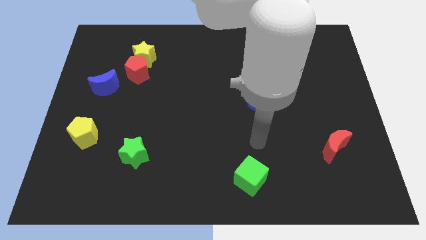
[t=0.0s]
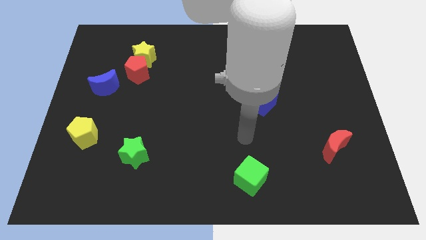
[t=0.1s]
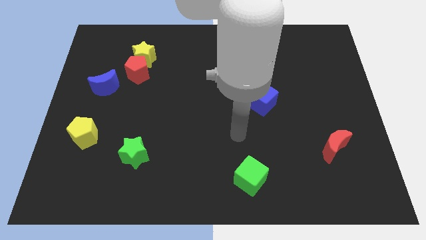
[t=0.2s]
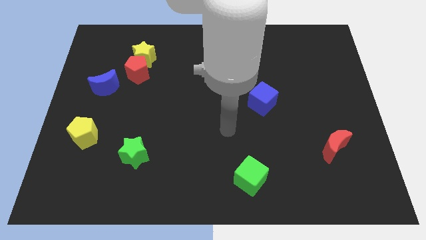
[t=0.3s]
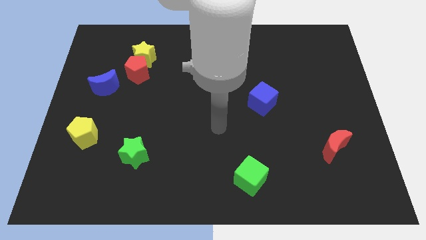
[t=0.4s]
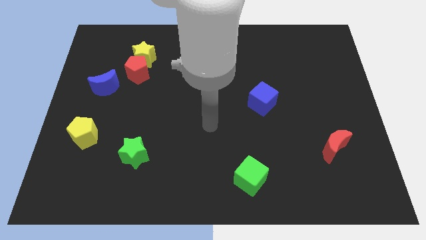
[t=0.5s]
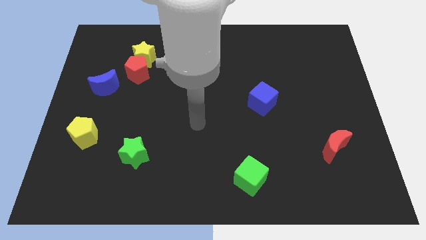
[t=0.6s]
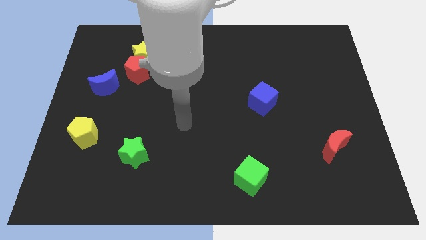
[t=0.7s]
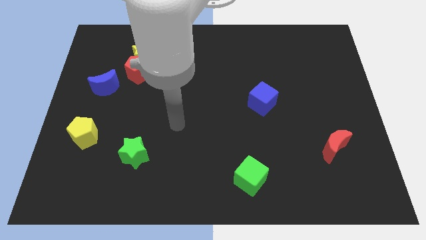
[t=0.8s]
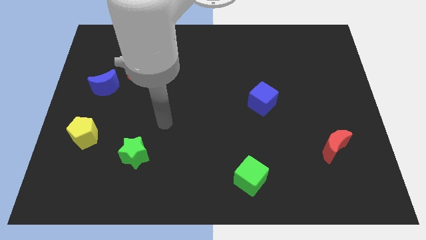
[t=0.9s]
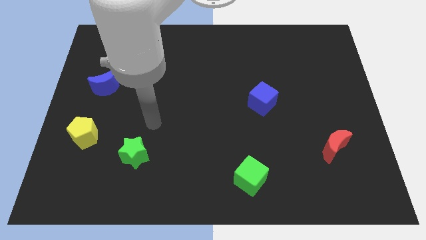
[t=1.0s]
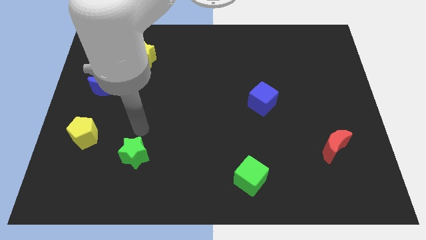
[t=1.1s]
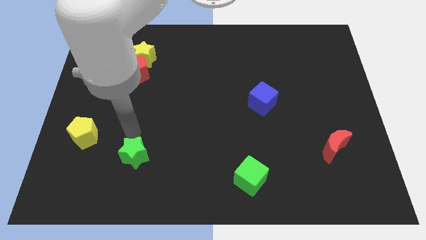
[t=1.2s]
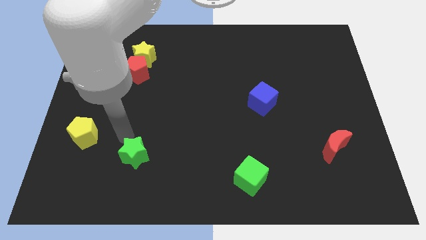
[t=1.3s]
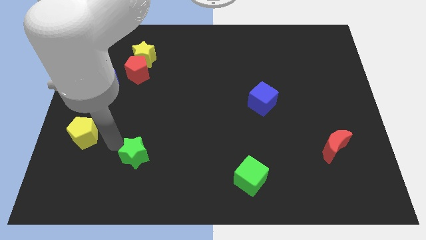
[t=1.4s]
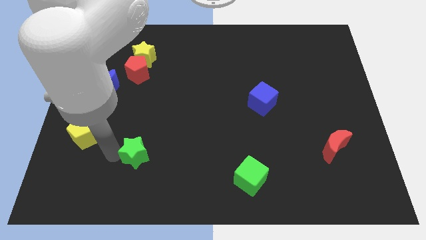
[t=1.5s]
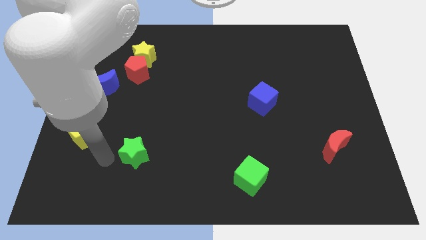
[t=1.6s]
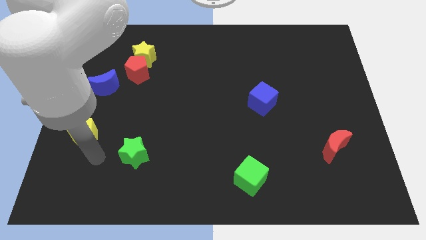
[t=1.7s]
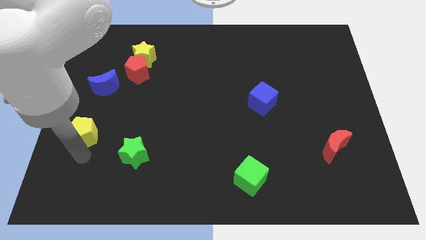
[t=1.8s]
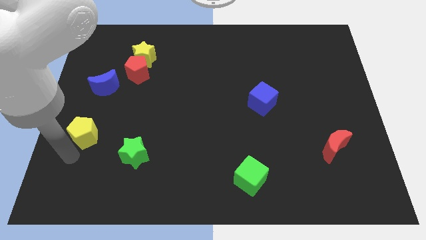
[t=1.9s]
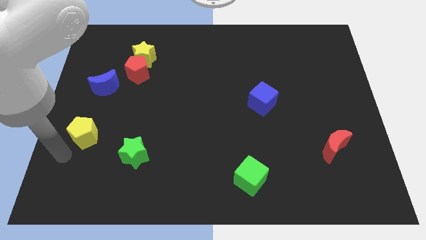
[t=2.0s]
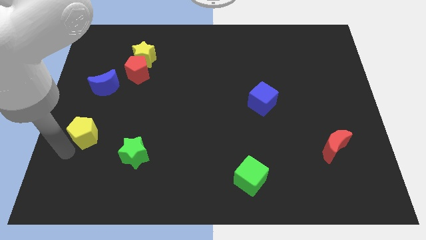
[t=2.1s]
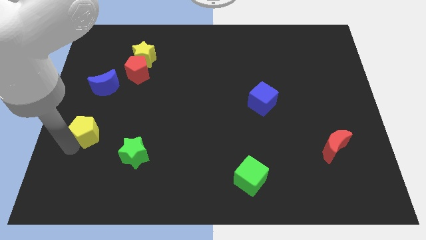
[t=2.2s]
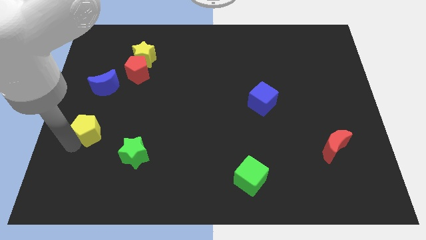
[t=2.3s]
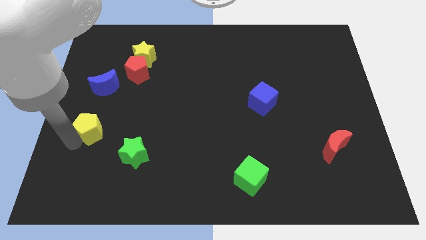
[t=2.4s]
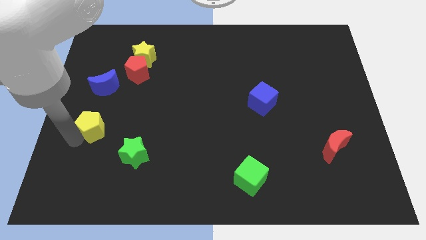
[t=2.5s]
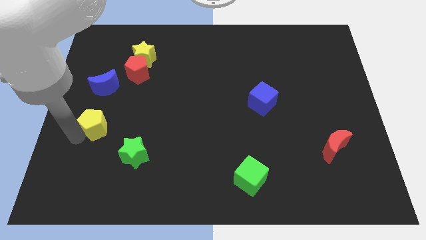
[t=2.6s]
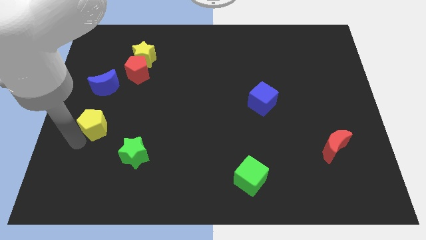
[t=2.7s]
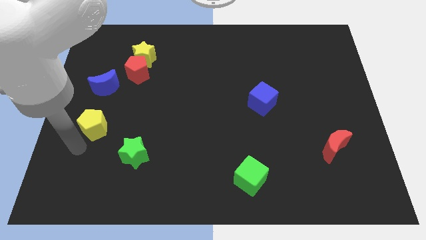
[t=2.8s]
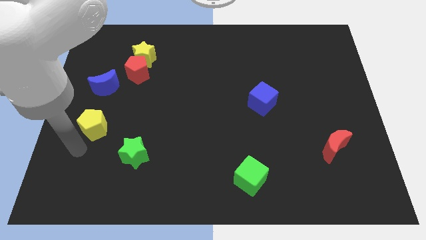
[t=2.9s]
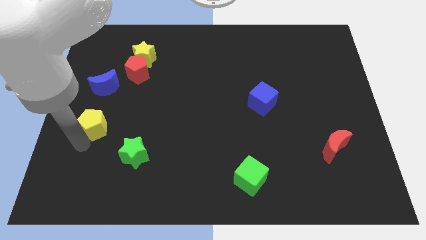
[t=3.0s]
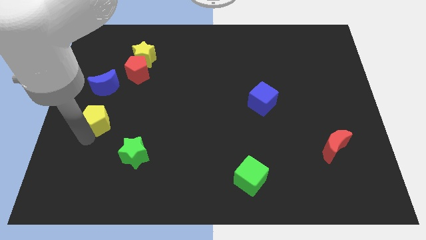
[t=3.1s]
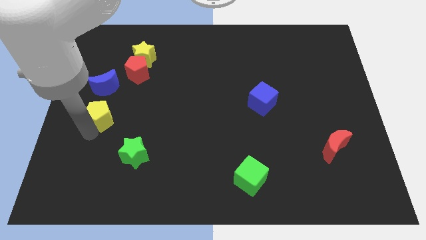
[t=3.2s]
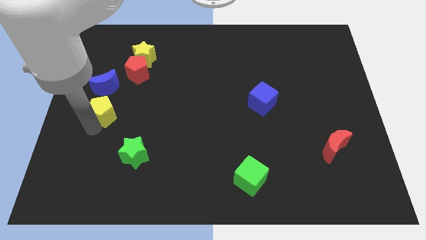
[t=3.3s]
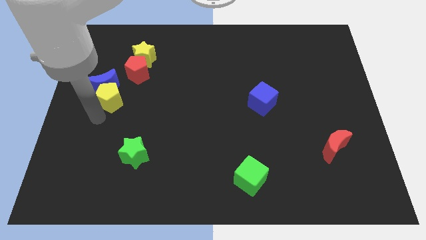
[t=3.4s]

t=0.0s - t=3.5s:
slide the yellow pentagon somewhat diagonally up and right

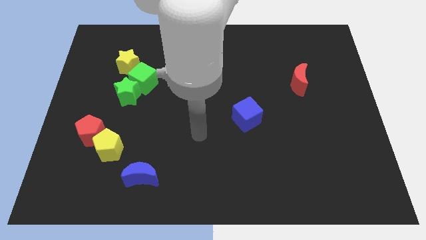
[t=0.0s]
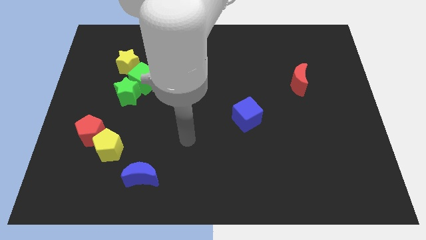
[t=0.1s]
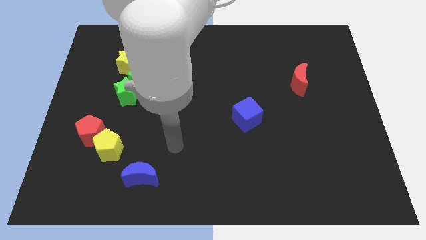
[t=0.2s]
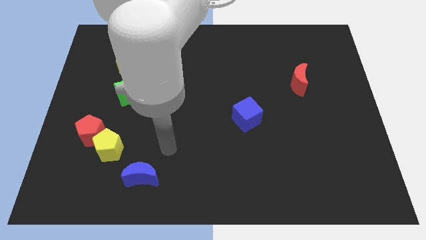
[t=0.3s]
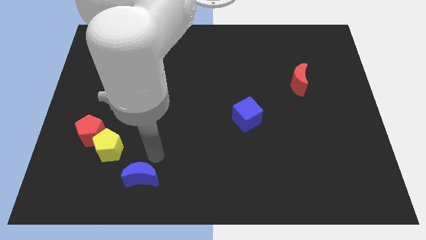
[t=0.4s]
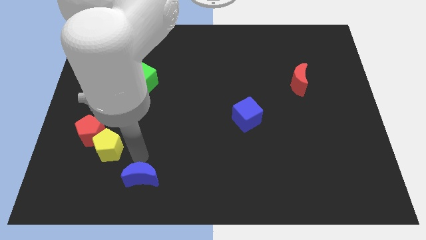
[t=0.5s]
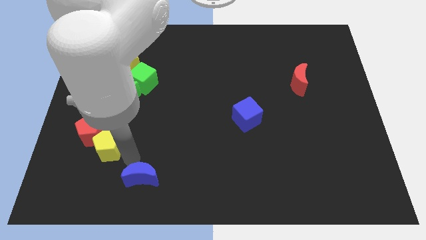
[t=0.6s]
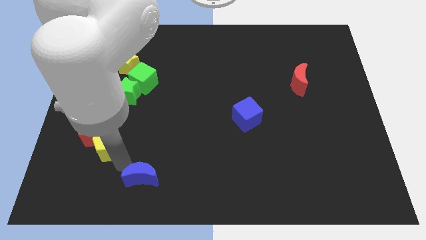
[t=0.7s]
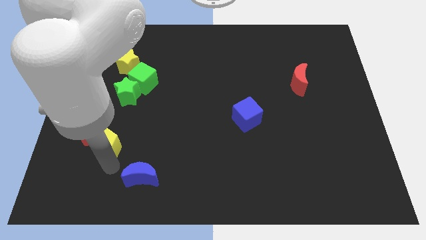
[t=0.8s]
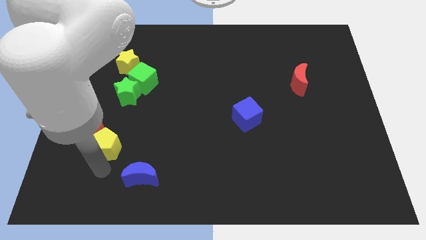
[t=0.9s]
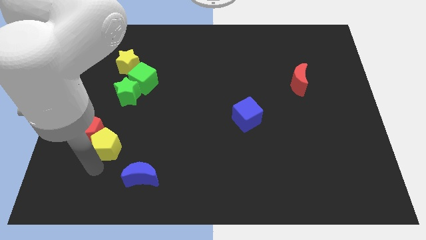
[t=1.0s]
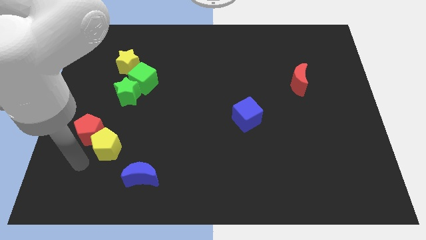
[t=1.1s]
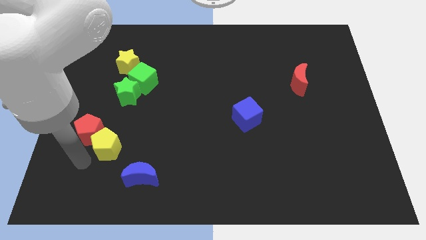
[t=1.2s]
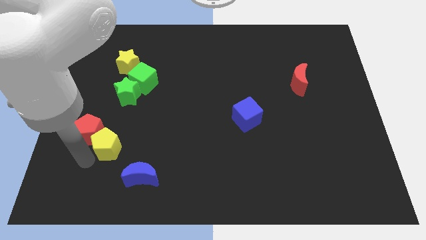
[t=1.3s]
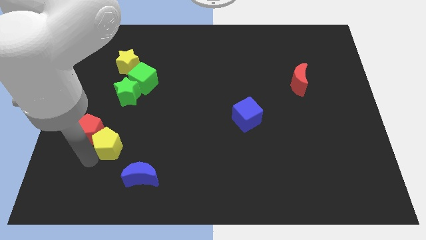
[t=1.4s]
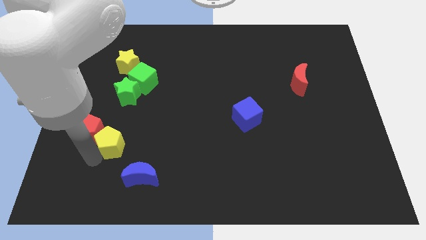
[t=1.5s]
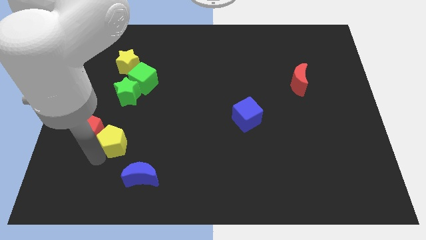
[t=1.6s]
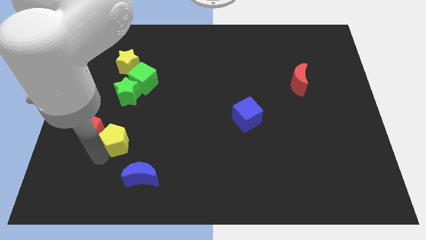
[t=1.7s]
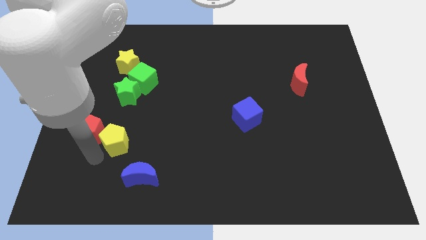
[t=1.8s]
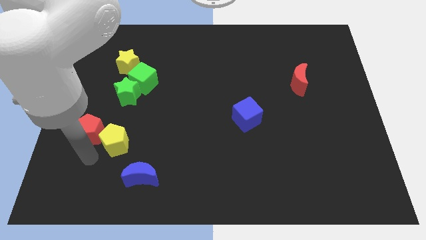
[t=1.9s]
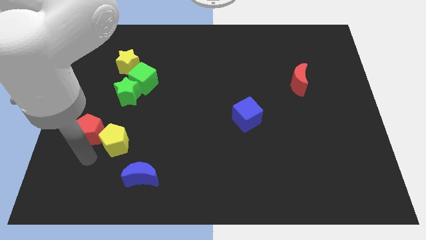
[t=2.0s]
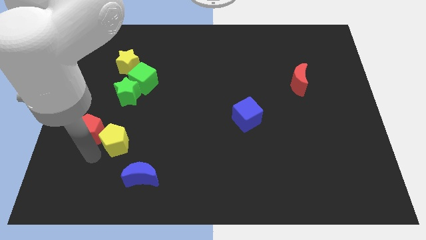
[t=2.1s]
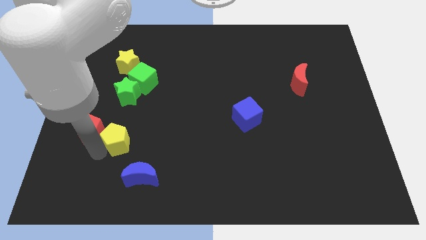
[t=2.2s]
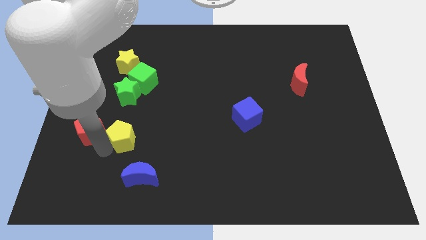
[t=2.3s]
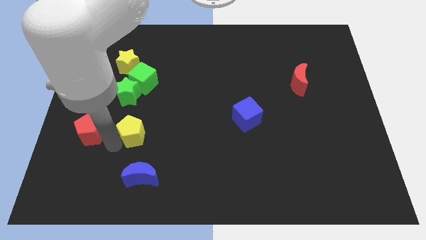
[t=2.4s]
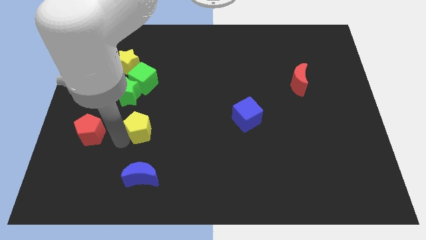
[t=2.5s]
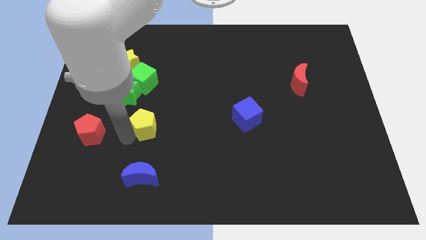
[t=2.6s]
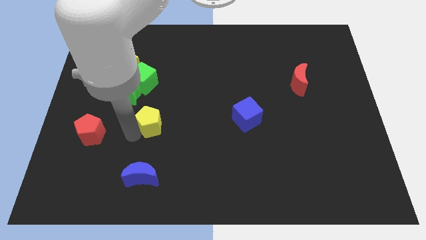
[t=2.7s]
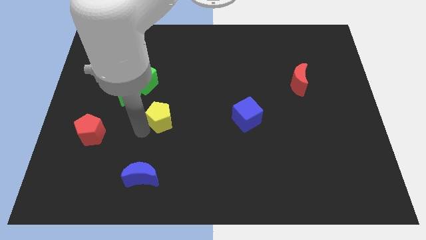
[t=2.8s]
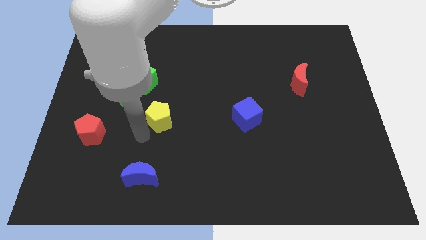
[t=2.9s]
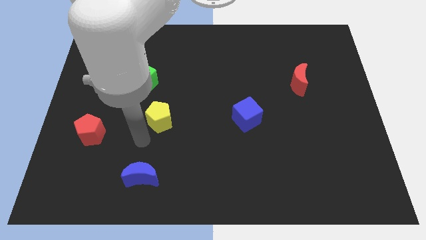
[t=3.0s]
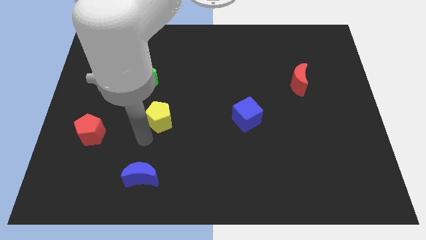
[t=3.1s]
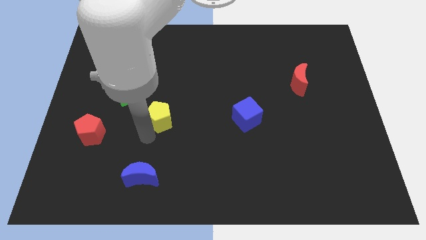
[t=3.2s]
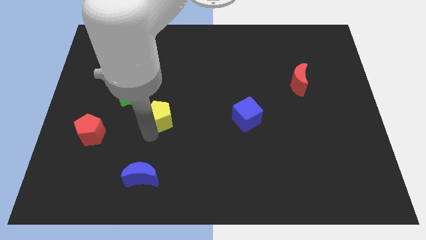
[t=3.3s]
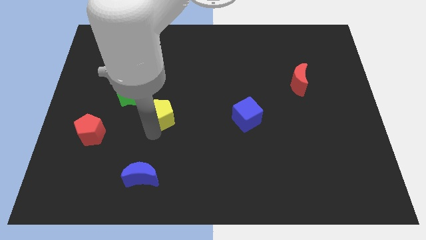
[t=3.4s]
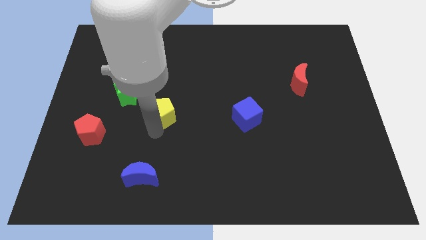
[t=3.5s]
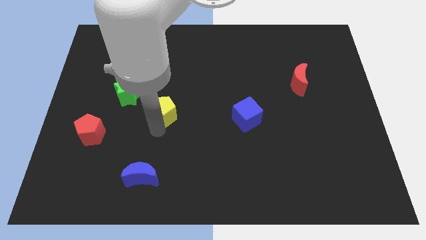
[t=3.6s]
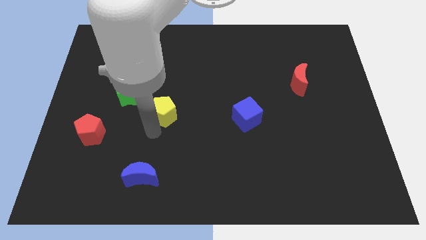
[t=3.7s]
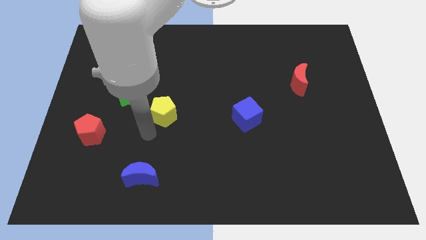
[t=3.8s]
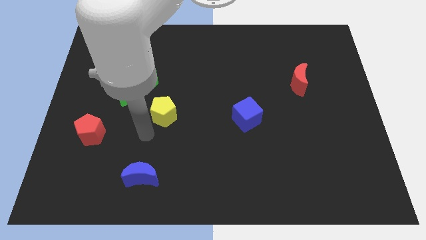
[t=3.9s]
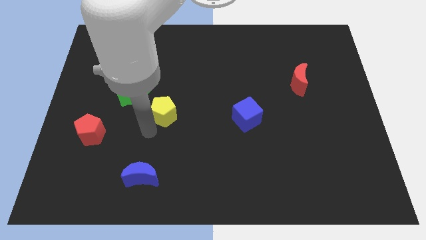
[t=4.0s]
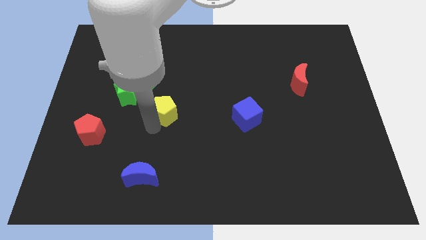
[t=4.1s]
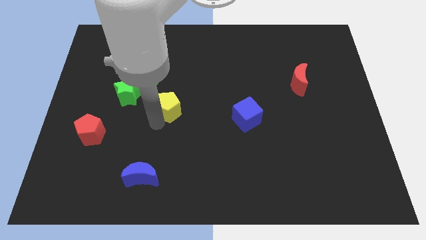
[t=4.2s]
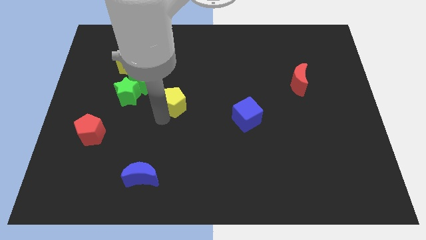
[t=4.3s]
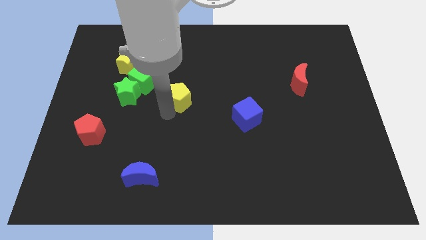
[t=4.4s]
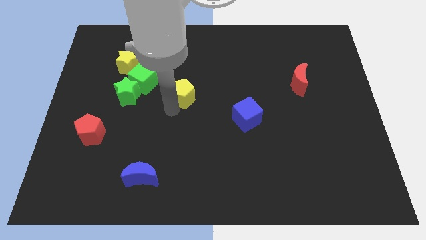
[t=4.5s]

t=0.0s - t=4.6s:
push the yellow pentagon diagonally up and right
